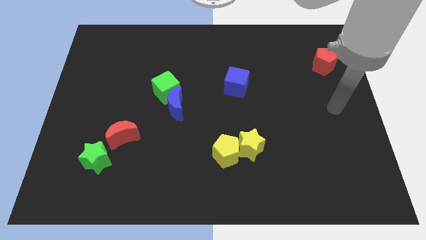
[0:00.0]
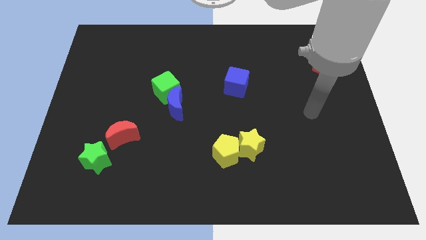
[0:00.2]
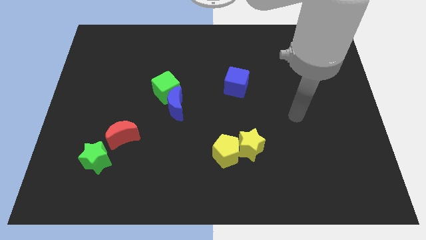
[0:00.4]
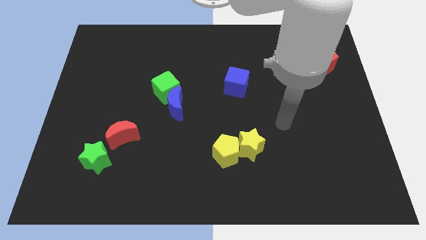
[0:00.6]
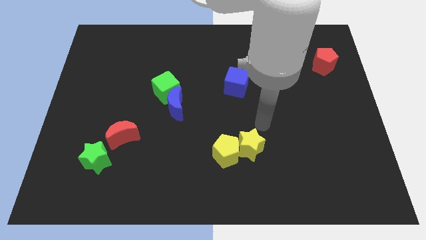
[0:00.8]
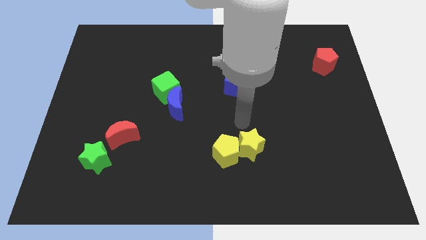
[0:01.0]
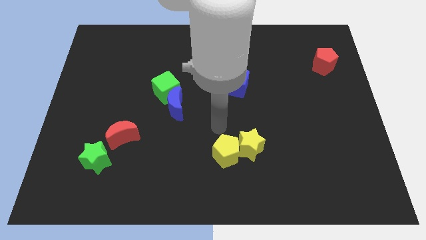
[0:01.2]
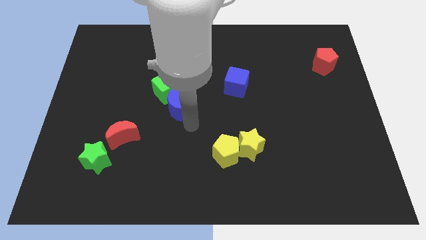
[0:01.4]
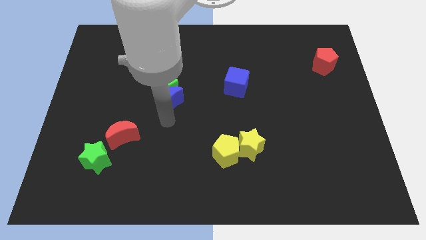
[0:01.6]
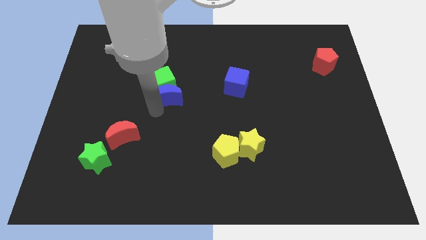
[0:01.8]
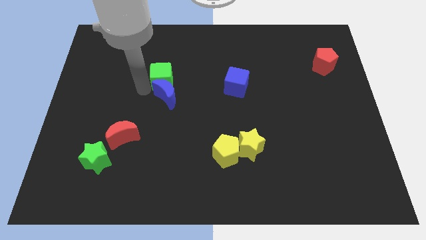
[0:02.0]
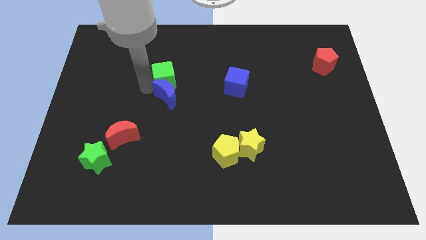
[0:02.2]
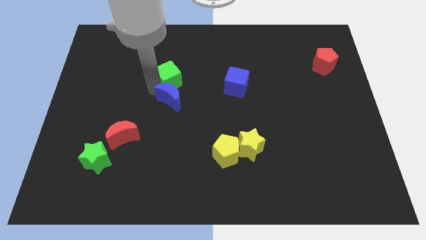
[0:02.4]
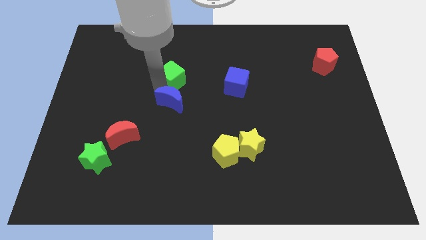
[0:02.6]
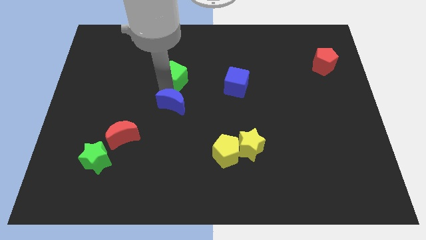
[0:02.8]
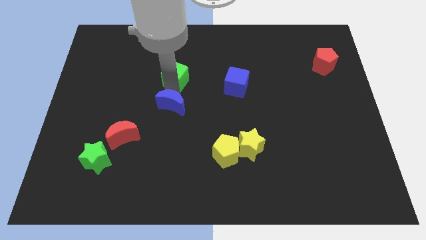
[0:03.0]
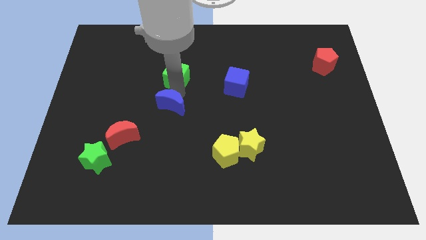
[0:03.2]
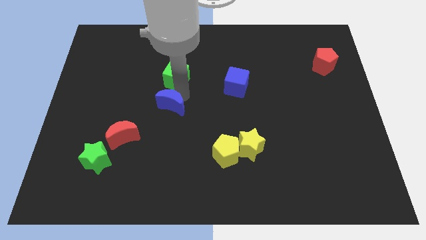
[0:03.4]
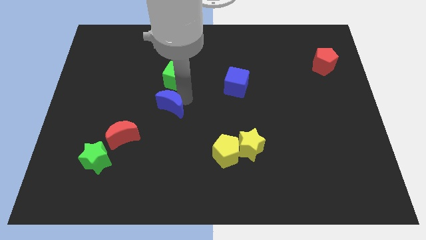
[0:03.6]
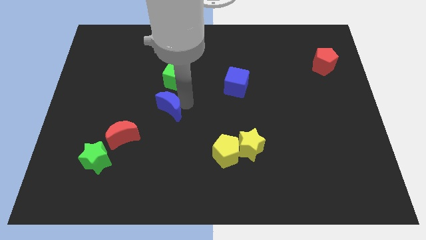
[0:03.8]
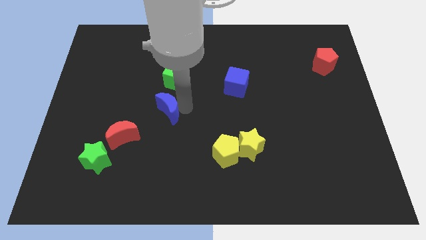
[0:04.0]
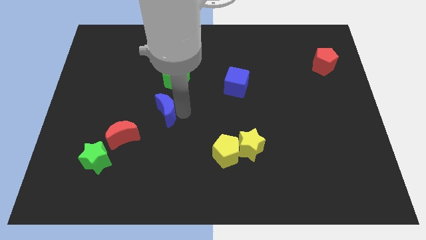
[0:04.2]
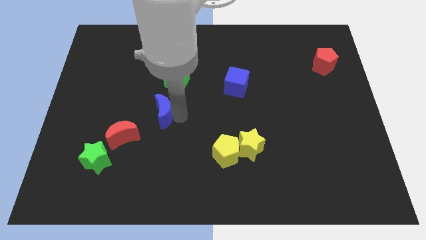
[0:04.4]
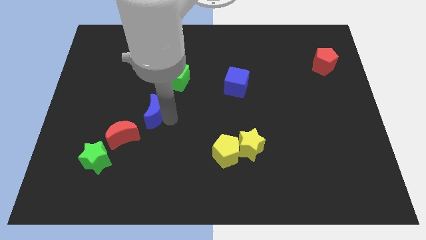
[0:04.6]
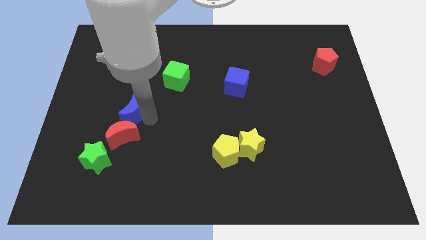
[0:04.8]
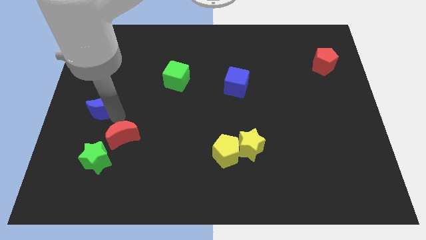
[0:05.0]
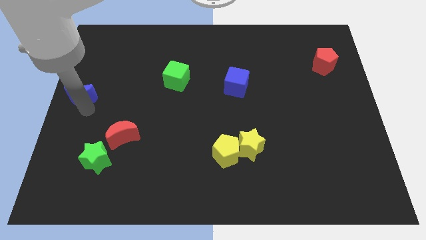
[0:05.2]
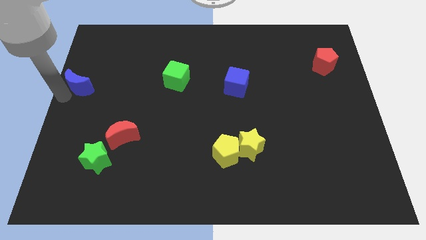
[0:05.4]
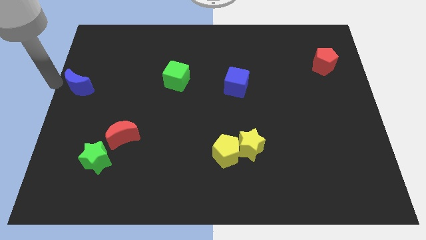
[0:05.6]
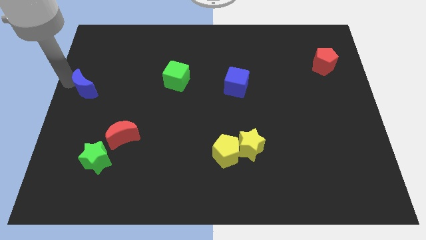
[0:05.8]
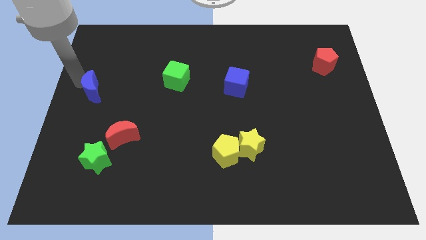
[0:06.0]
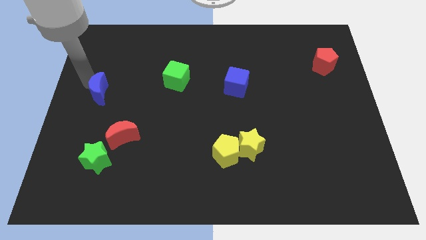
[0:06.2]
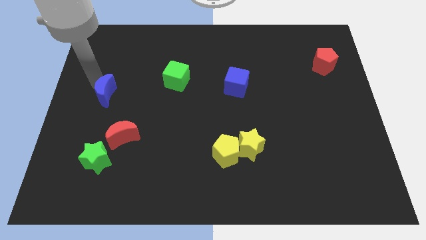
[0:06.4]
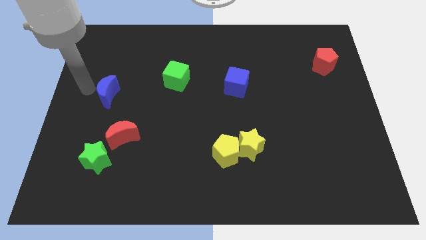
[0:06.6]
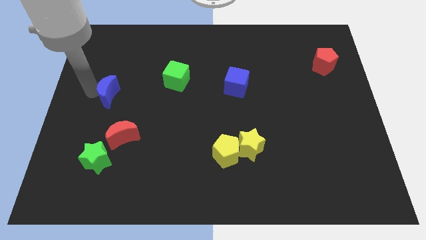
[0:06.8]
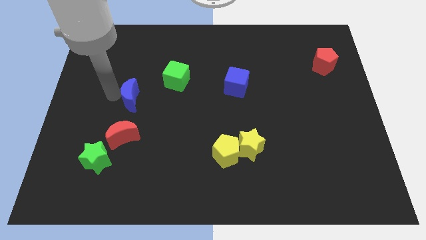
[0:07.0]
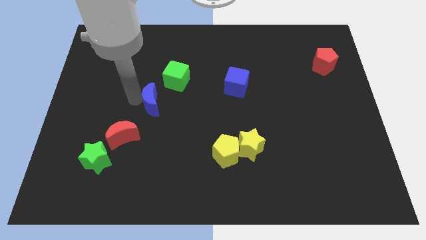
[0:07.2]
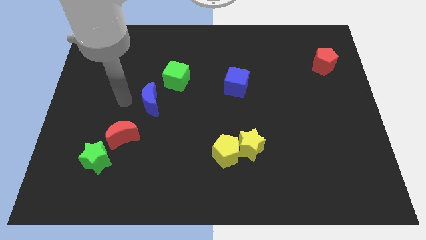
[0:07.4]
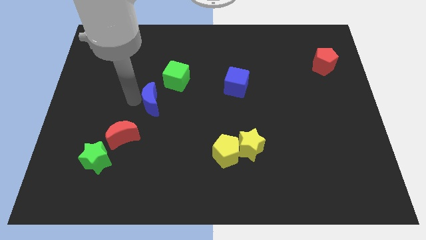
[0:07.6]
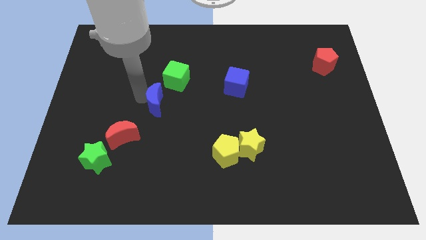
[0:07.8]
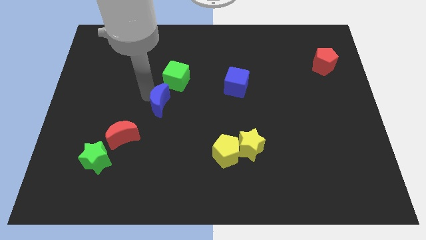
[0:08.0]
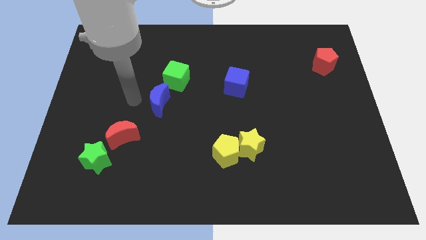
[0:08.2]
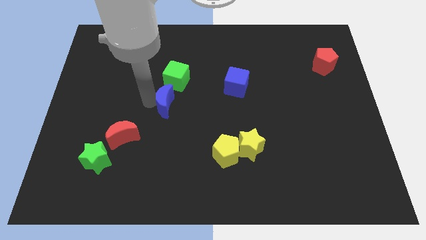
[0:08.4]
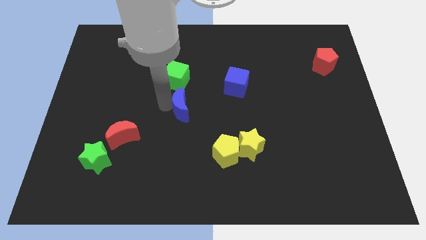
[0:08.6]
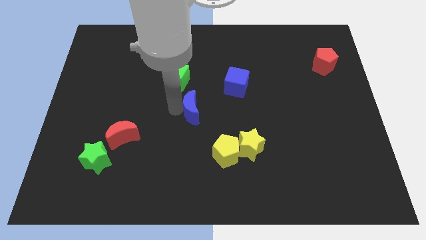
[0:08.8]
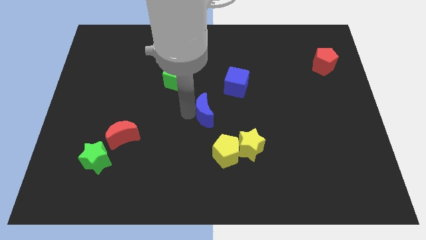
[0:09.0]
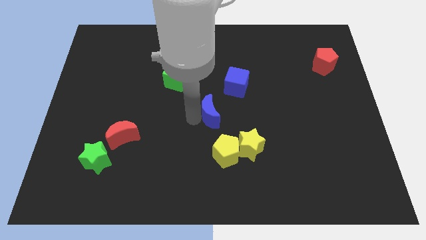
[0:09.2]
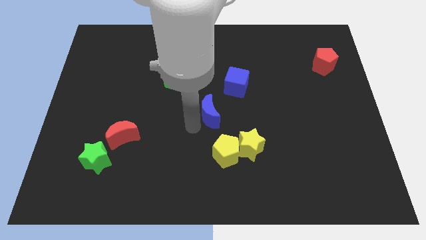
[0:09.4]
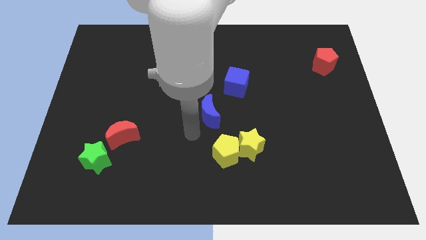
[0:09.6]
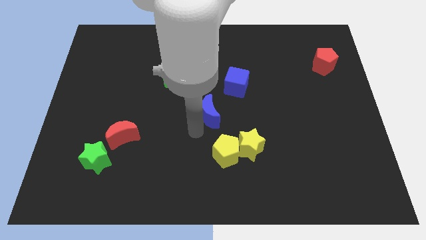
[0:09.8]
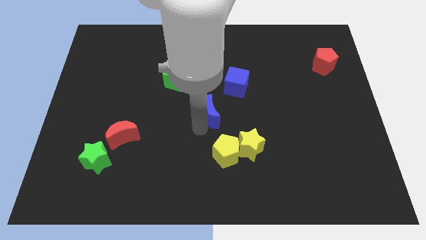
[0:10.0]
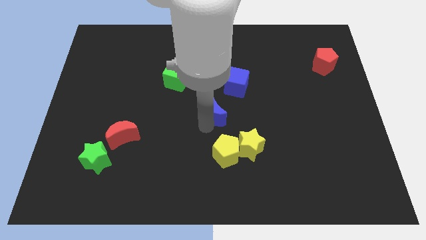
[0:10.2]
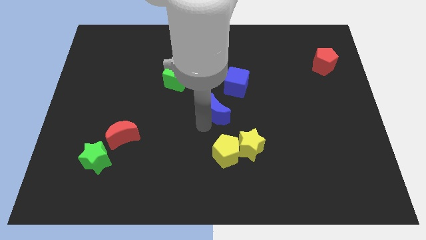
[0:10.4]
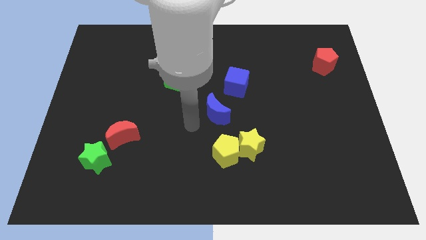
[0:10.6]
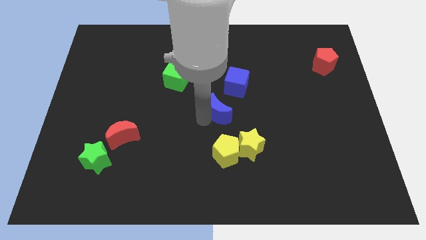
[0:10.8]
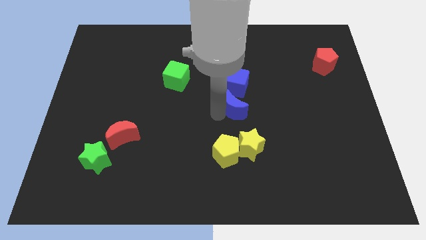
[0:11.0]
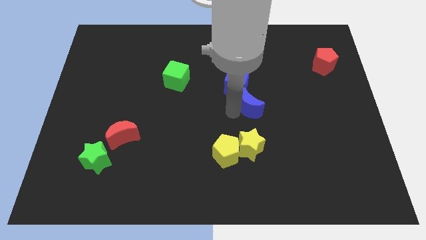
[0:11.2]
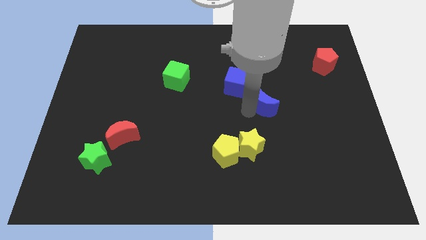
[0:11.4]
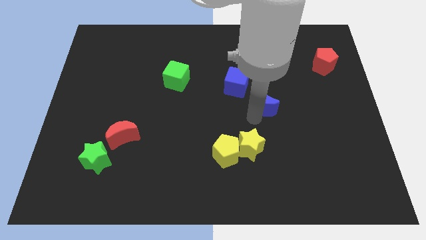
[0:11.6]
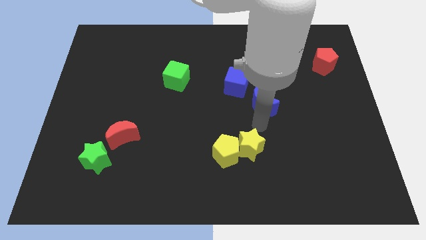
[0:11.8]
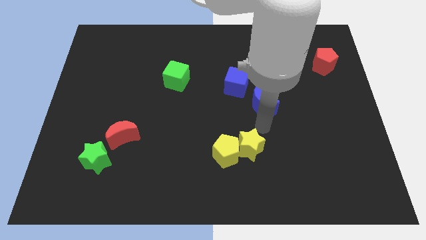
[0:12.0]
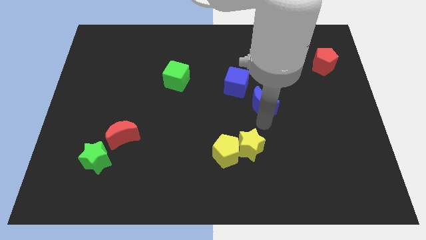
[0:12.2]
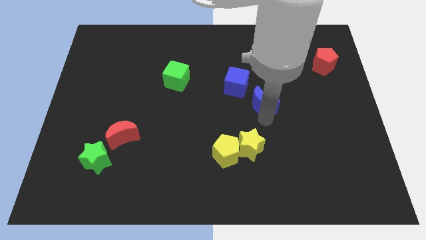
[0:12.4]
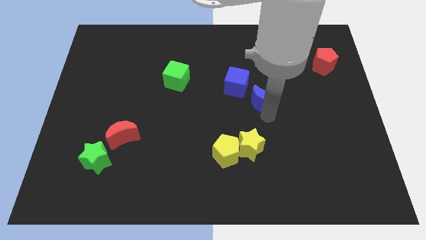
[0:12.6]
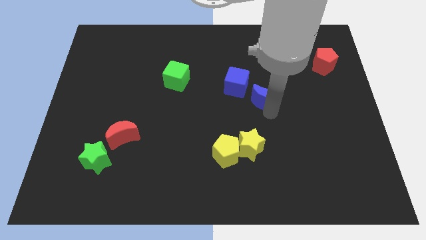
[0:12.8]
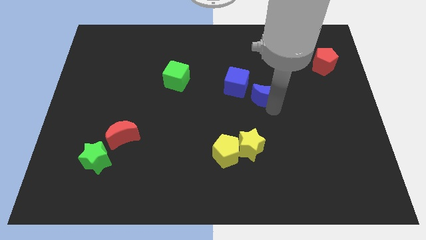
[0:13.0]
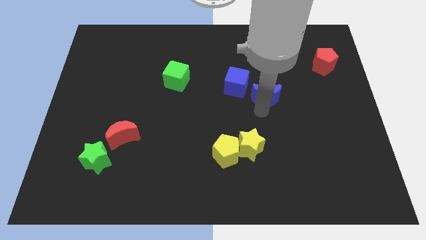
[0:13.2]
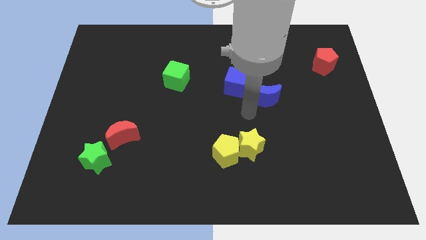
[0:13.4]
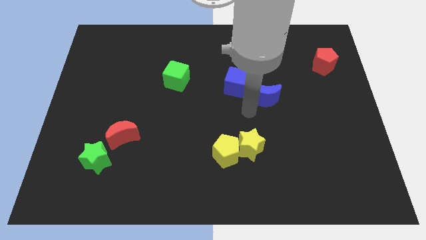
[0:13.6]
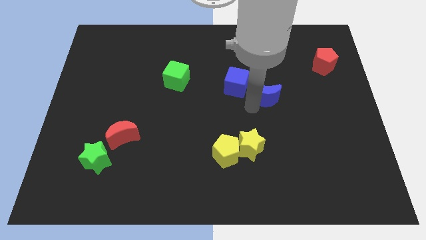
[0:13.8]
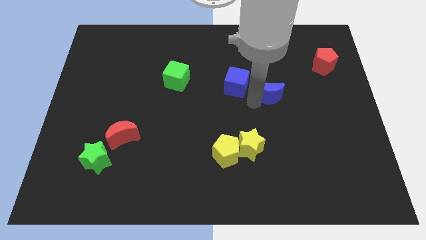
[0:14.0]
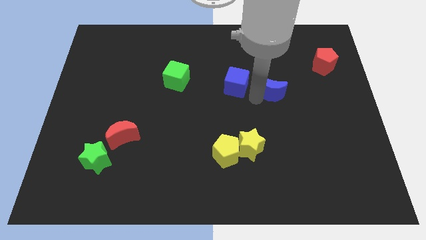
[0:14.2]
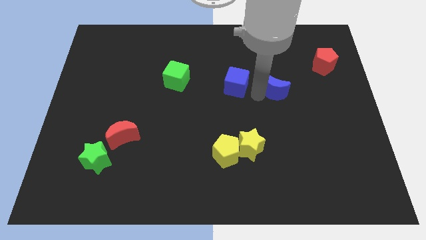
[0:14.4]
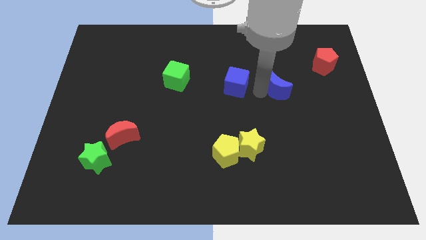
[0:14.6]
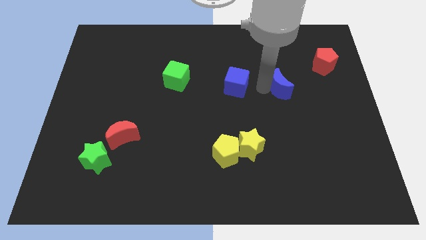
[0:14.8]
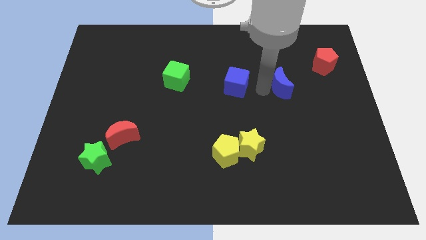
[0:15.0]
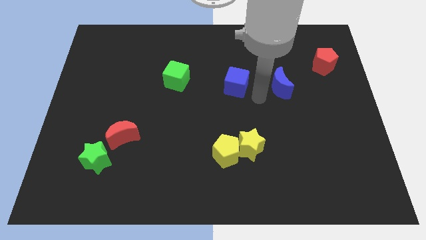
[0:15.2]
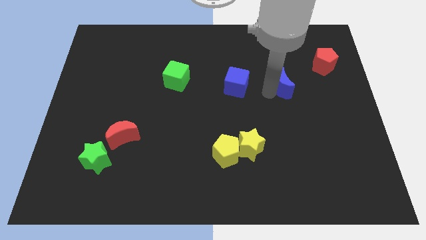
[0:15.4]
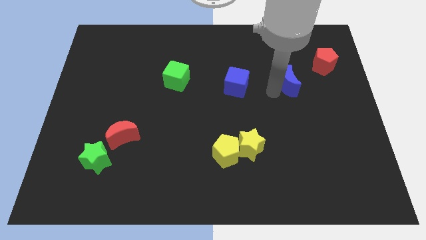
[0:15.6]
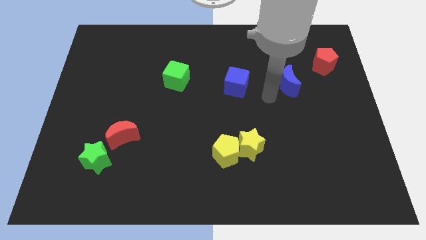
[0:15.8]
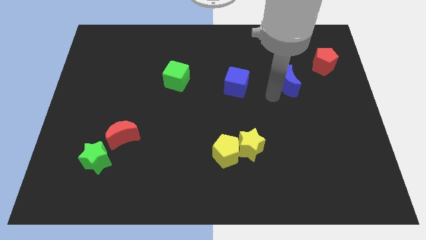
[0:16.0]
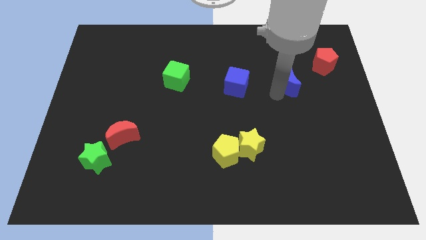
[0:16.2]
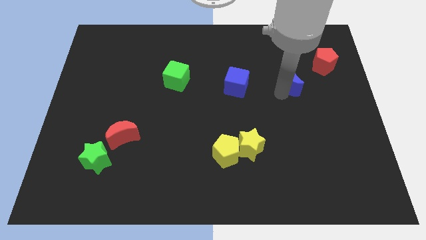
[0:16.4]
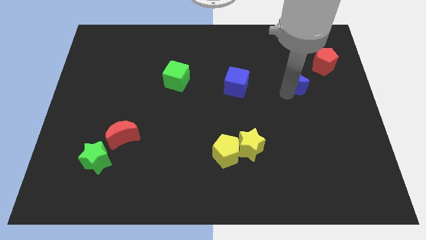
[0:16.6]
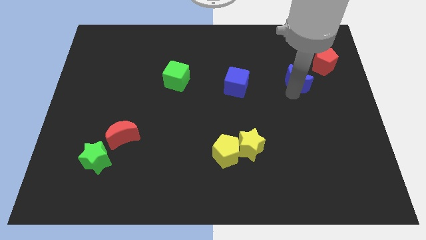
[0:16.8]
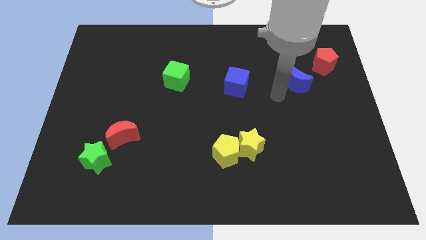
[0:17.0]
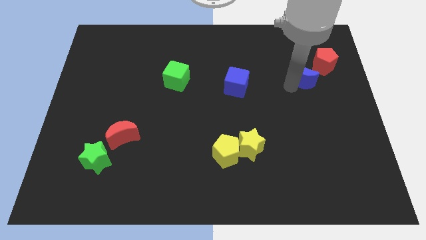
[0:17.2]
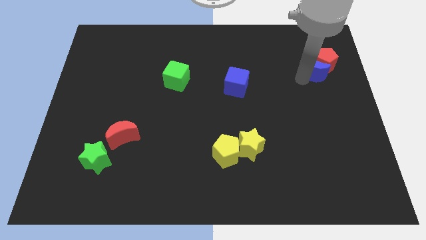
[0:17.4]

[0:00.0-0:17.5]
slide the blue moon close to the red pentagon
